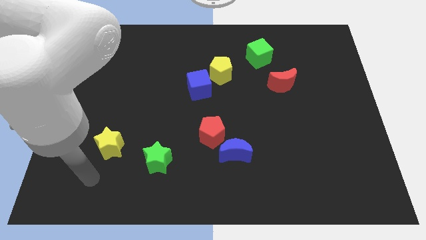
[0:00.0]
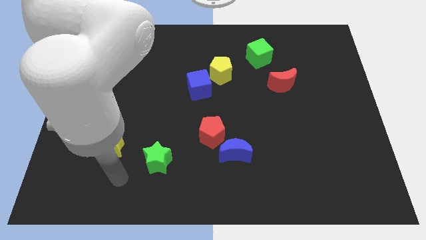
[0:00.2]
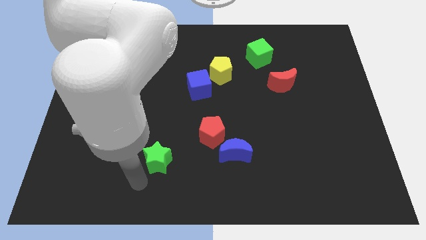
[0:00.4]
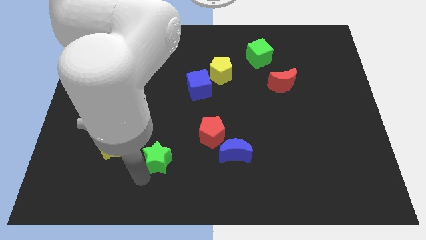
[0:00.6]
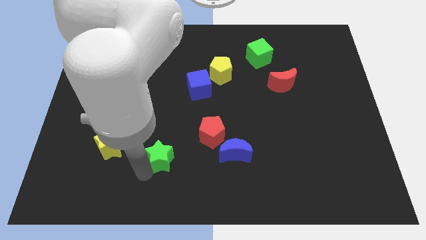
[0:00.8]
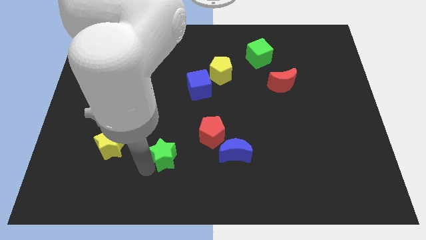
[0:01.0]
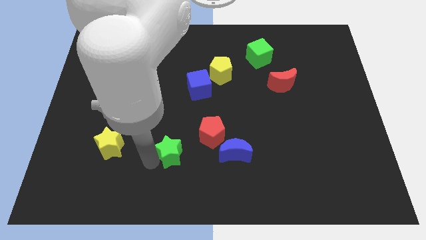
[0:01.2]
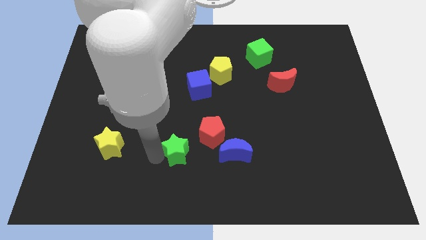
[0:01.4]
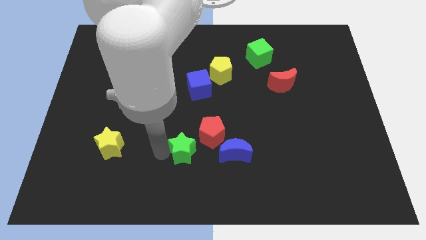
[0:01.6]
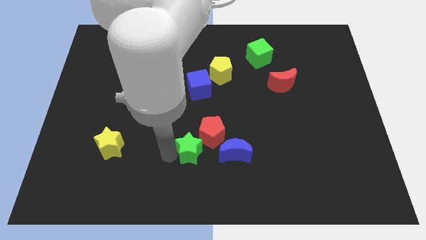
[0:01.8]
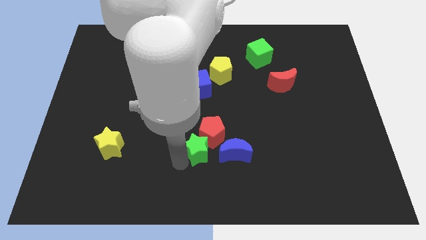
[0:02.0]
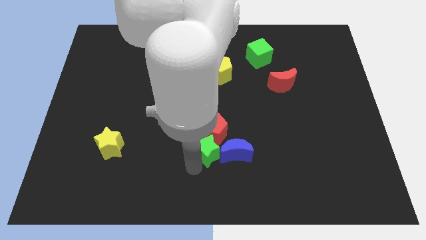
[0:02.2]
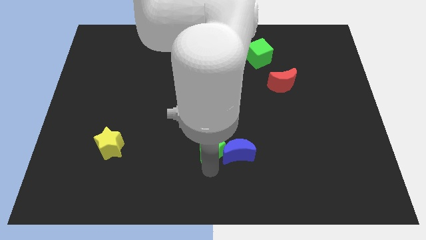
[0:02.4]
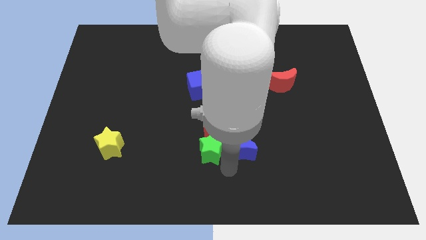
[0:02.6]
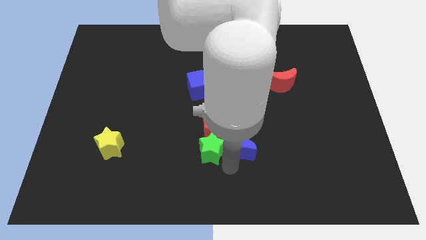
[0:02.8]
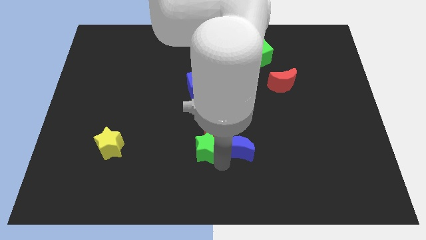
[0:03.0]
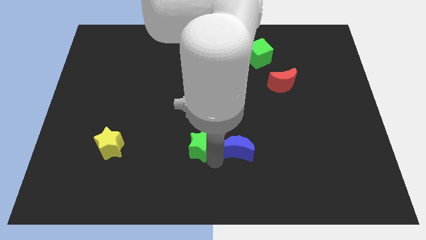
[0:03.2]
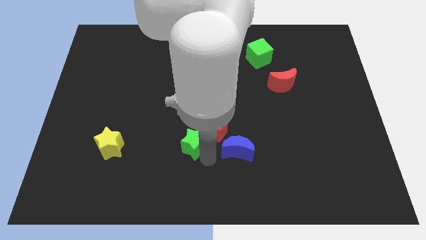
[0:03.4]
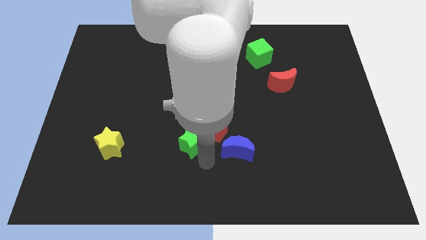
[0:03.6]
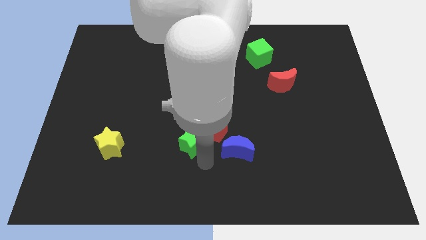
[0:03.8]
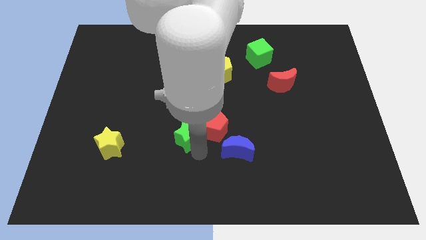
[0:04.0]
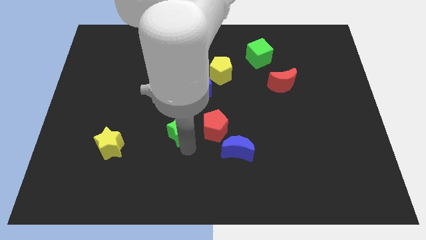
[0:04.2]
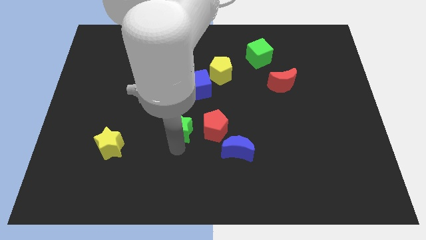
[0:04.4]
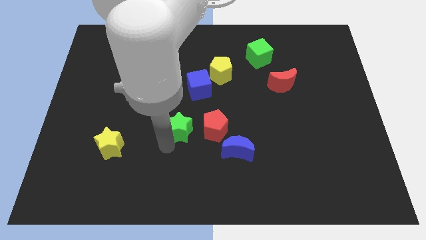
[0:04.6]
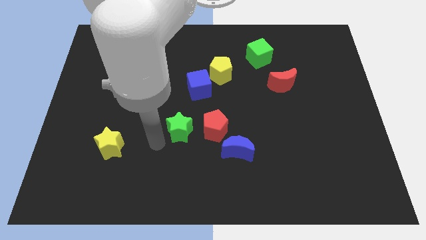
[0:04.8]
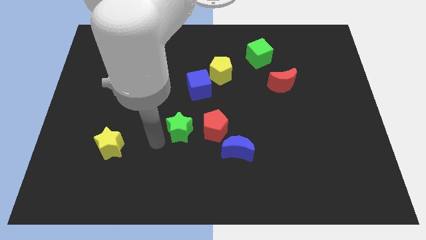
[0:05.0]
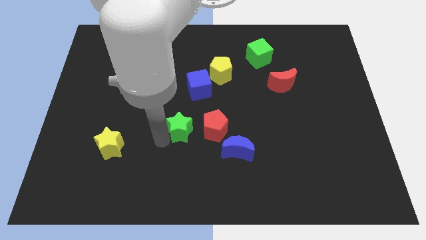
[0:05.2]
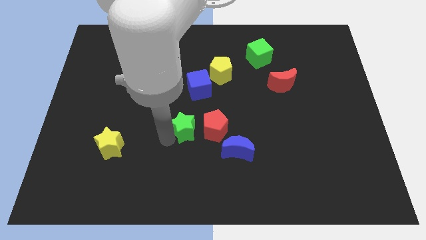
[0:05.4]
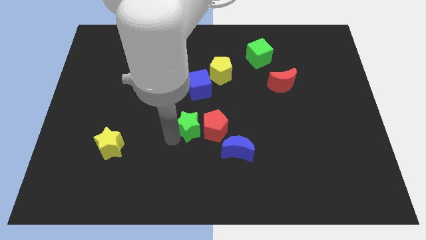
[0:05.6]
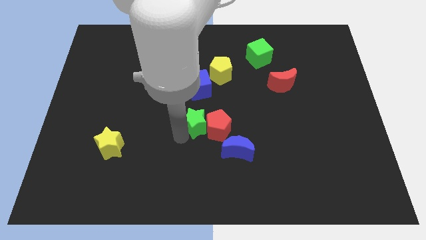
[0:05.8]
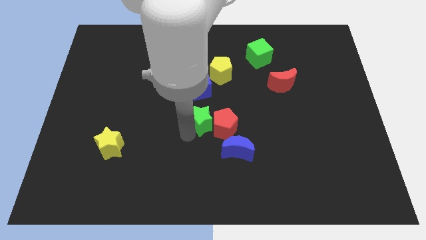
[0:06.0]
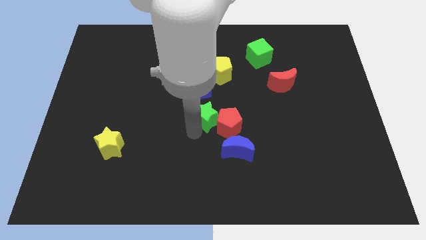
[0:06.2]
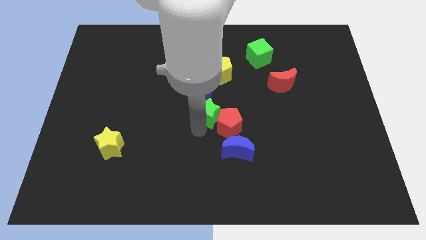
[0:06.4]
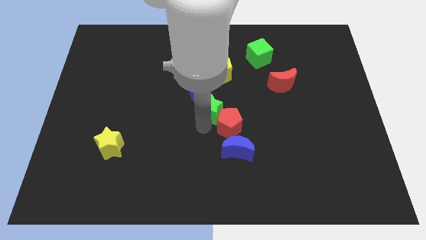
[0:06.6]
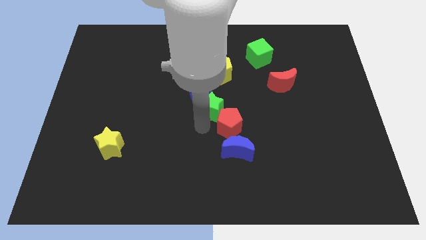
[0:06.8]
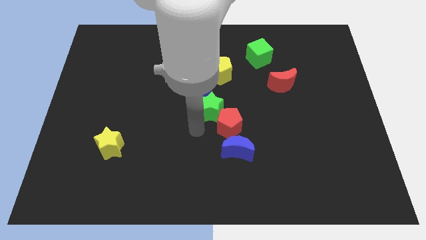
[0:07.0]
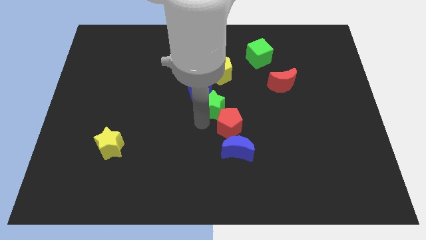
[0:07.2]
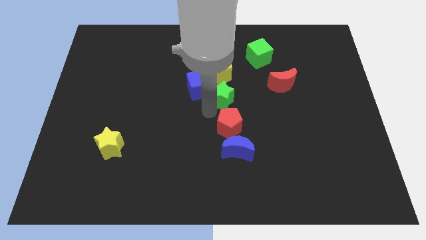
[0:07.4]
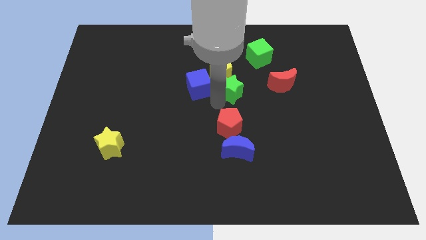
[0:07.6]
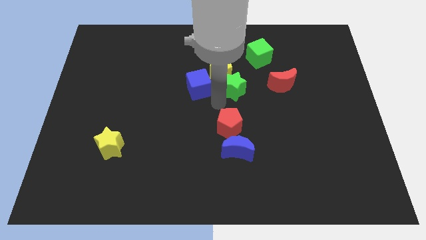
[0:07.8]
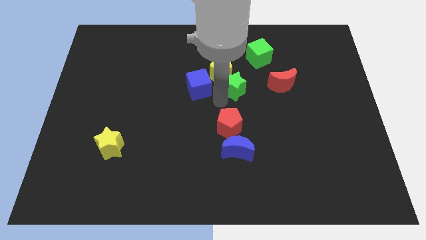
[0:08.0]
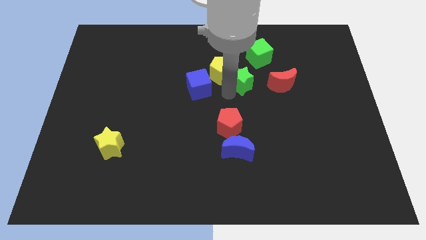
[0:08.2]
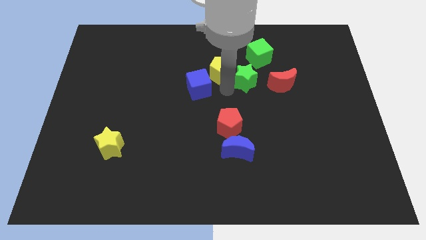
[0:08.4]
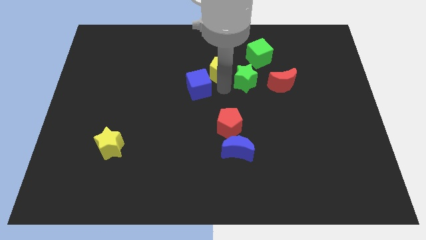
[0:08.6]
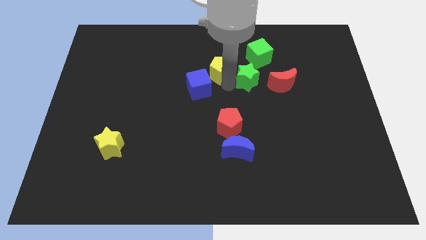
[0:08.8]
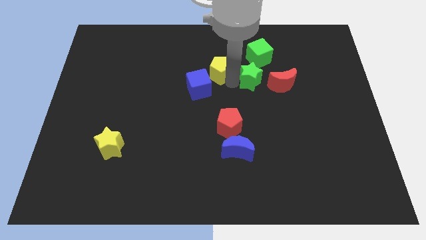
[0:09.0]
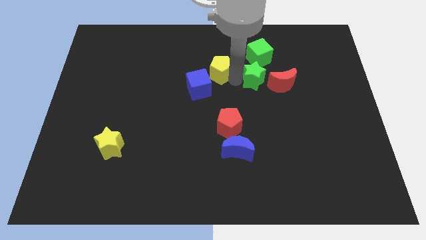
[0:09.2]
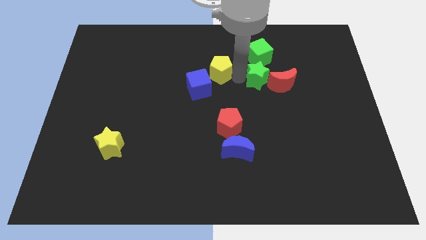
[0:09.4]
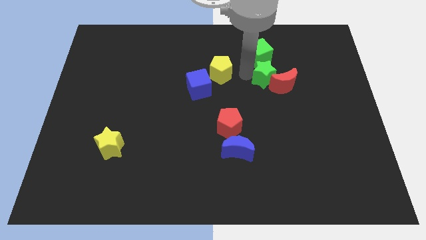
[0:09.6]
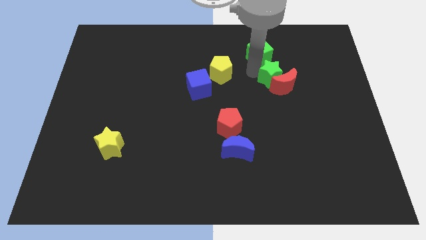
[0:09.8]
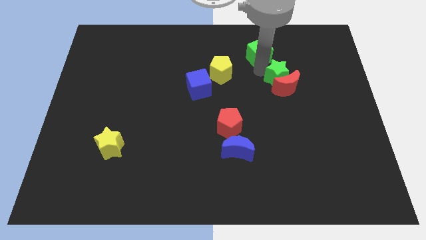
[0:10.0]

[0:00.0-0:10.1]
slide the green star diagonally up and to the right of the red moon

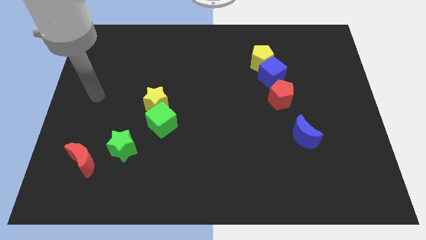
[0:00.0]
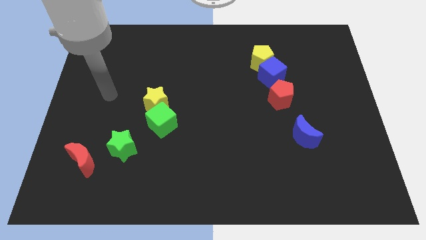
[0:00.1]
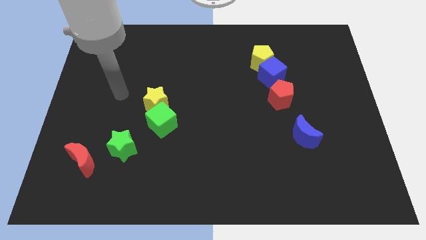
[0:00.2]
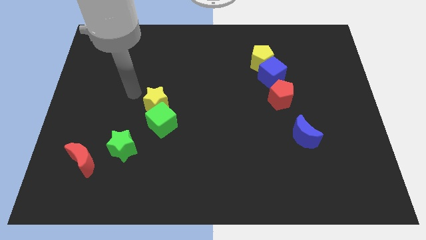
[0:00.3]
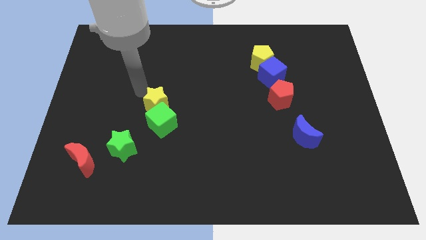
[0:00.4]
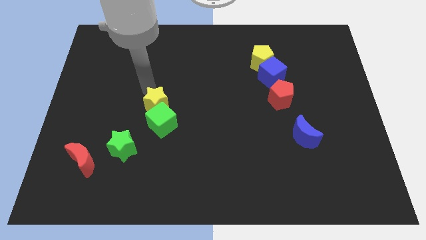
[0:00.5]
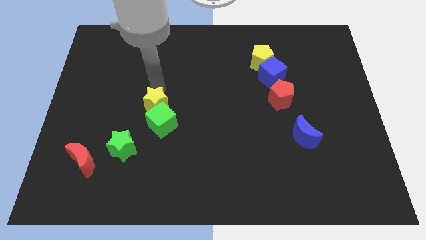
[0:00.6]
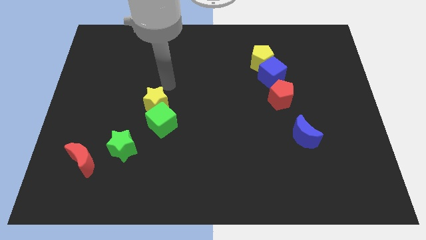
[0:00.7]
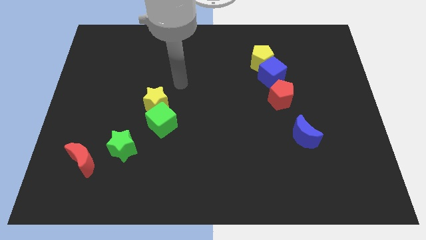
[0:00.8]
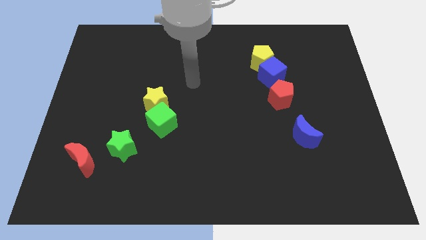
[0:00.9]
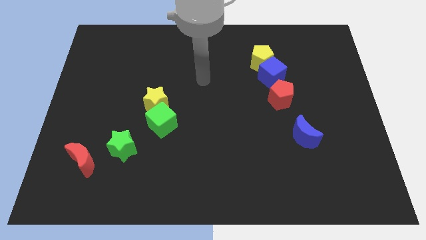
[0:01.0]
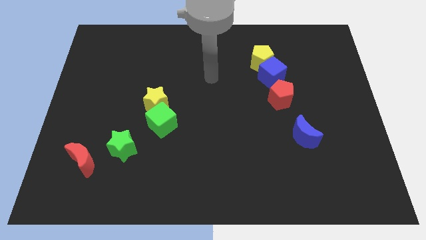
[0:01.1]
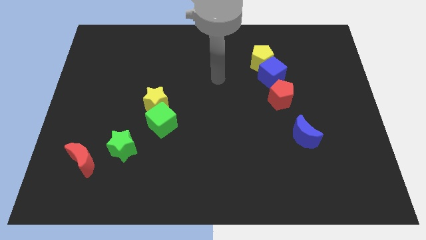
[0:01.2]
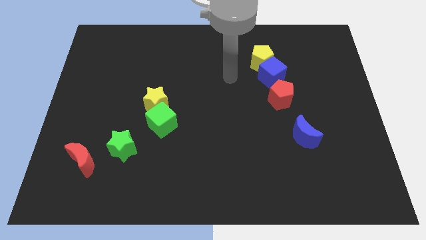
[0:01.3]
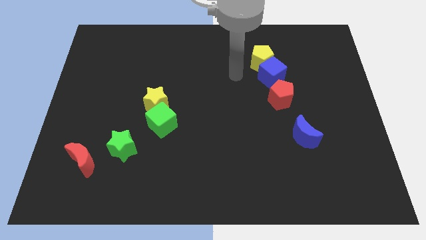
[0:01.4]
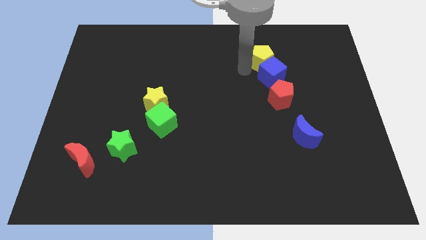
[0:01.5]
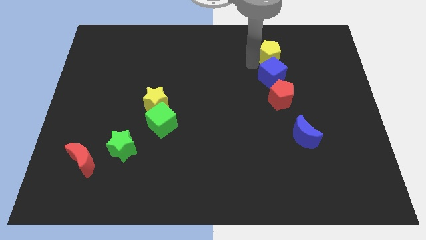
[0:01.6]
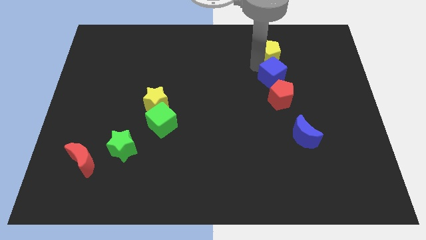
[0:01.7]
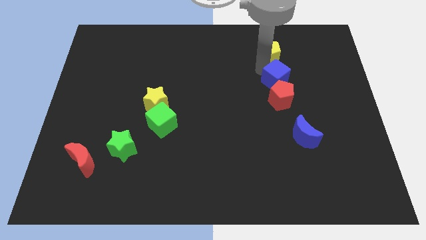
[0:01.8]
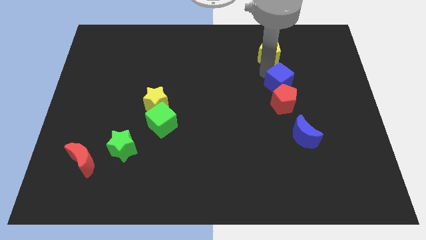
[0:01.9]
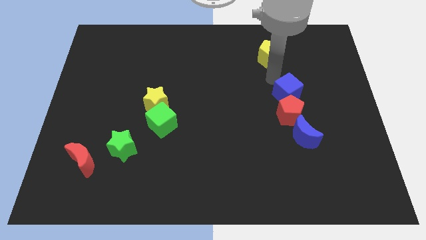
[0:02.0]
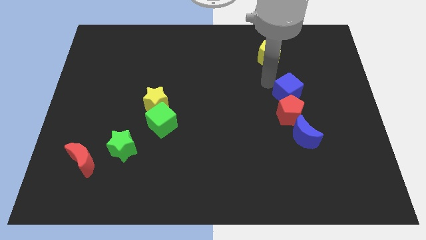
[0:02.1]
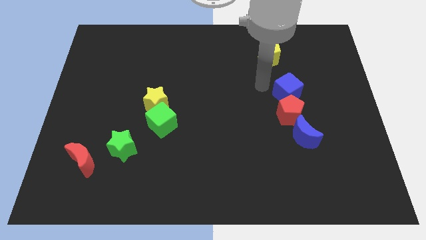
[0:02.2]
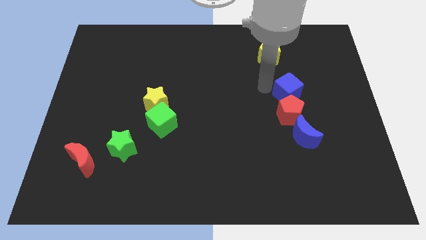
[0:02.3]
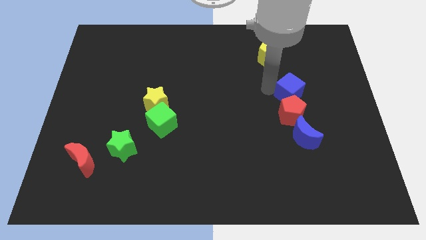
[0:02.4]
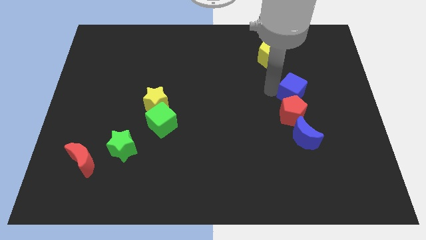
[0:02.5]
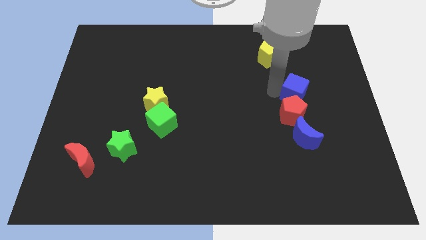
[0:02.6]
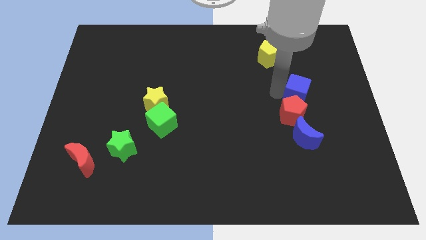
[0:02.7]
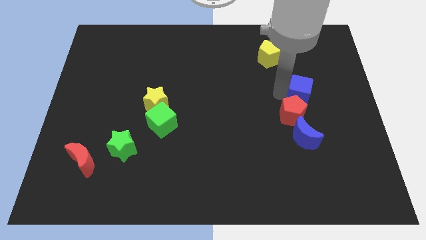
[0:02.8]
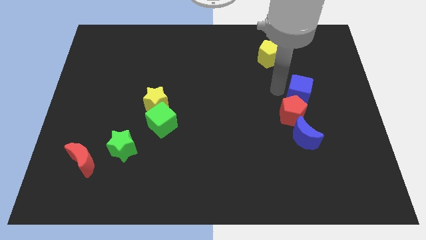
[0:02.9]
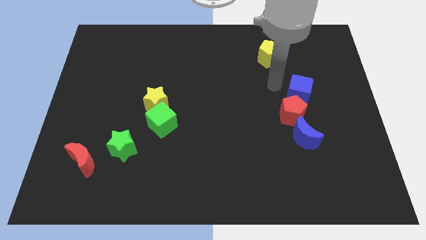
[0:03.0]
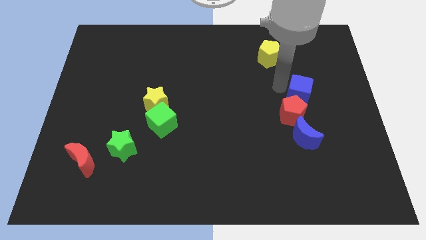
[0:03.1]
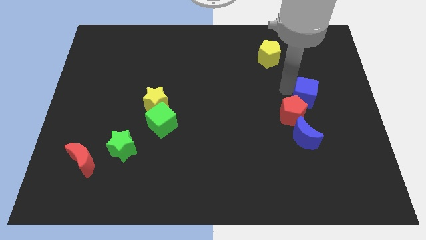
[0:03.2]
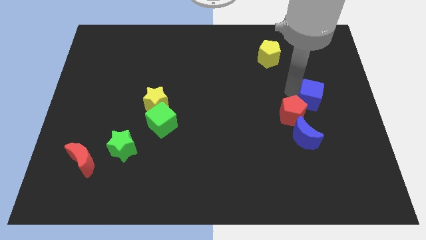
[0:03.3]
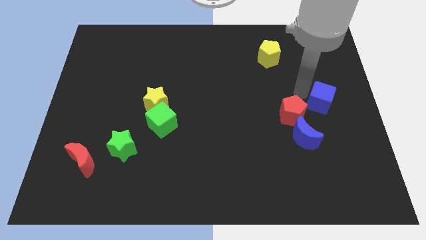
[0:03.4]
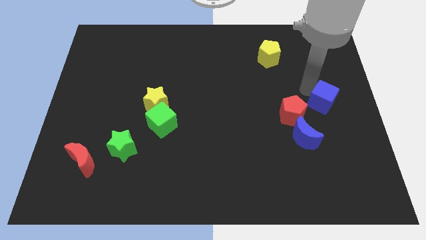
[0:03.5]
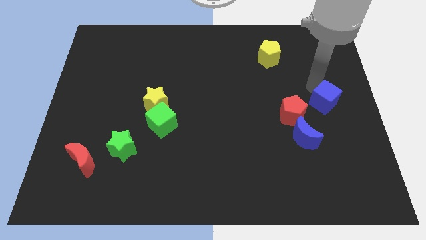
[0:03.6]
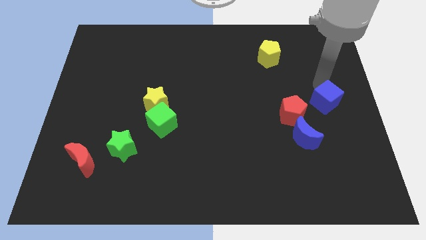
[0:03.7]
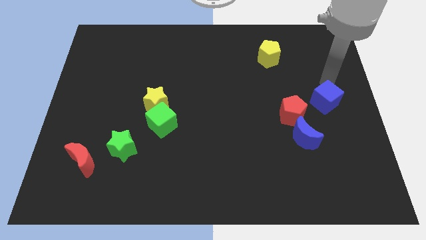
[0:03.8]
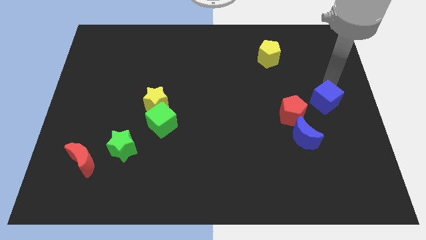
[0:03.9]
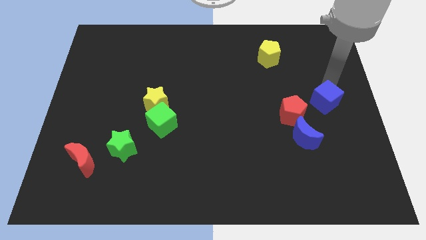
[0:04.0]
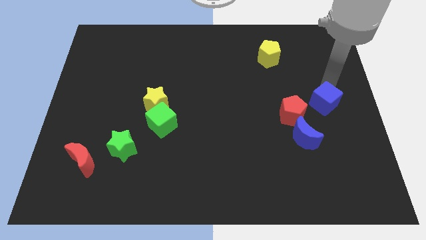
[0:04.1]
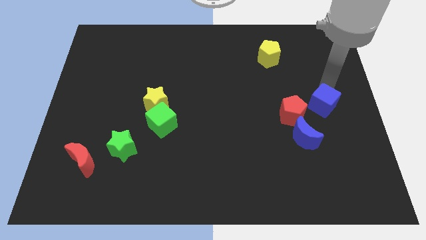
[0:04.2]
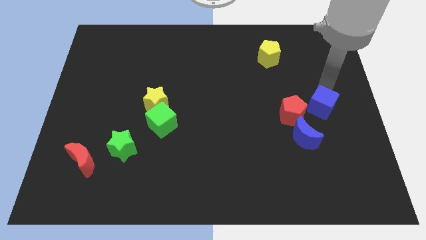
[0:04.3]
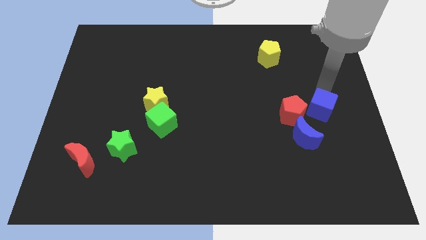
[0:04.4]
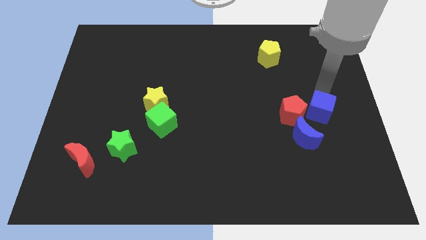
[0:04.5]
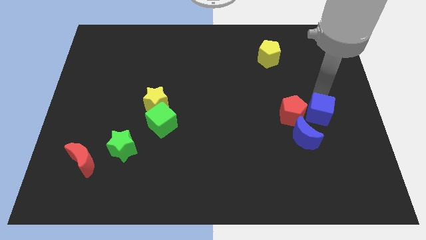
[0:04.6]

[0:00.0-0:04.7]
move the blue cube diagonally down and to the right of the red pentagon
